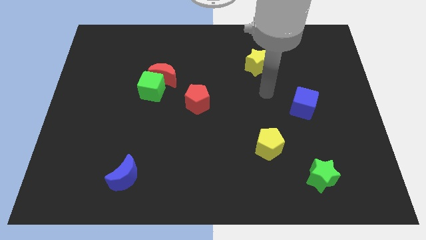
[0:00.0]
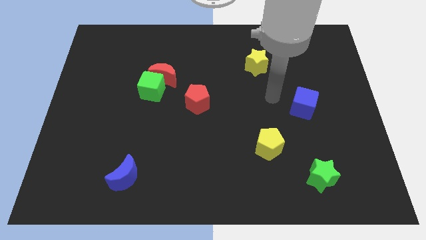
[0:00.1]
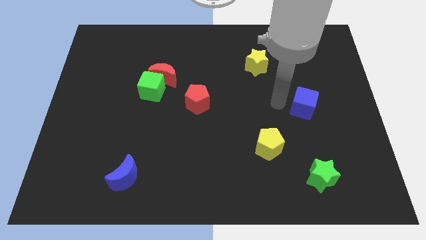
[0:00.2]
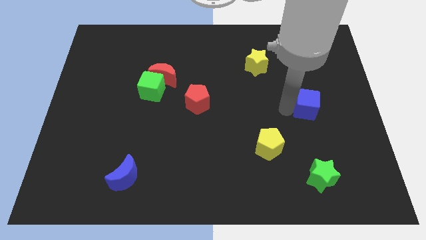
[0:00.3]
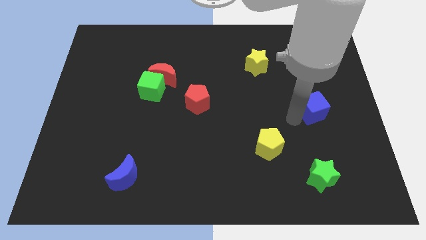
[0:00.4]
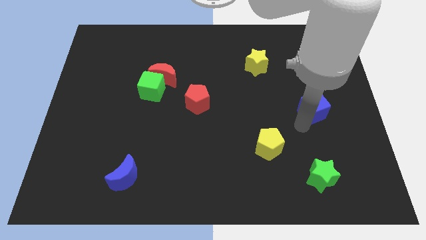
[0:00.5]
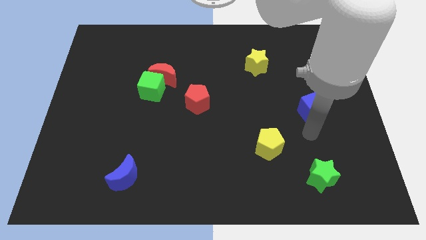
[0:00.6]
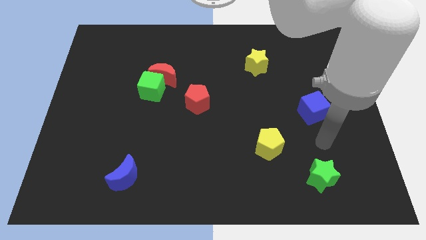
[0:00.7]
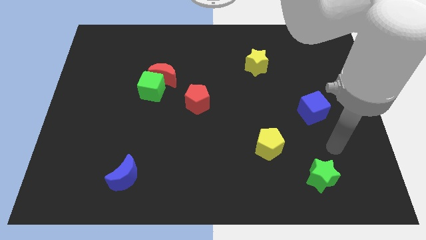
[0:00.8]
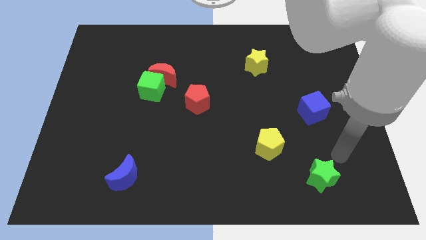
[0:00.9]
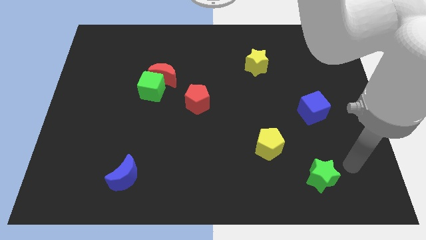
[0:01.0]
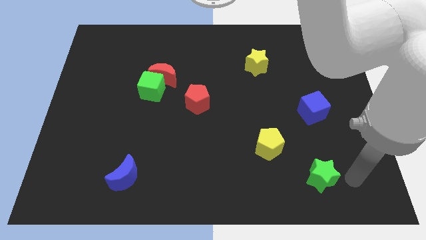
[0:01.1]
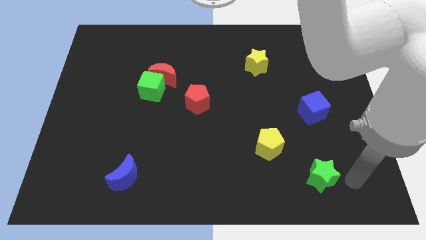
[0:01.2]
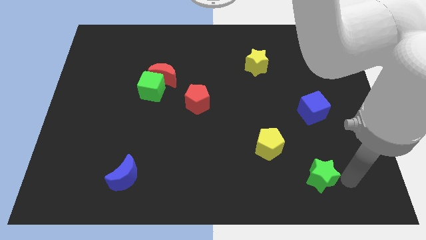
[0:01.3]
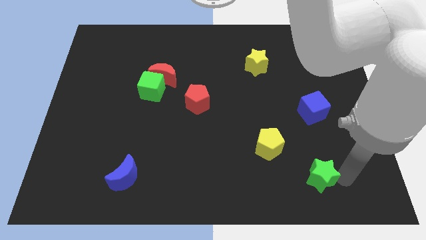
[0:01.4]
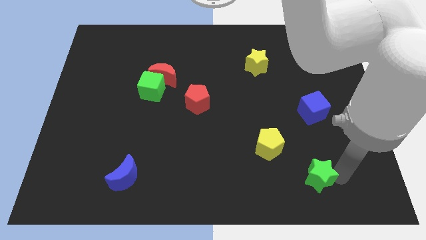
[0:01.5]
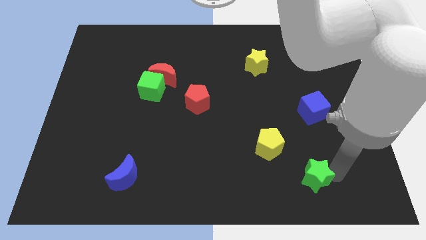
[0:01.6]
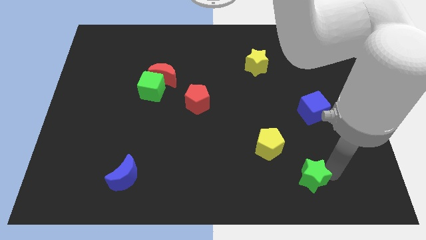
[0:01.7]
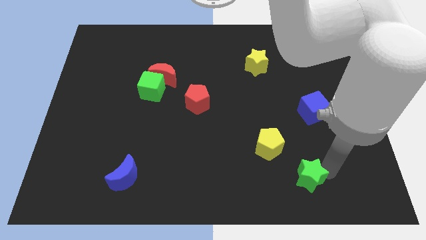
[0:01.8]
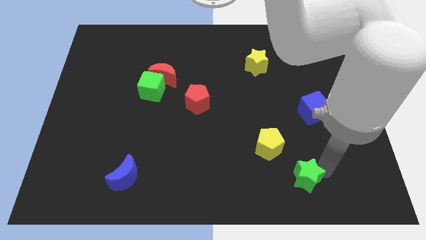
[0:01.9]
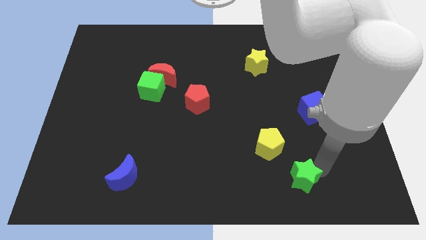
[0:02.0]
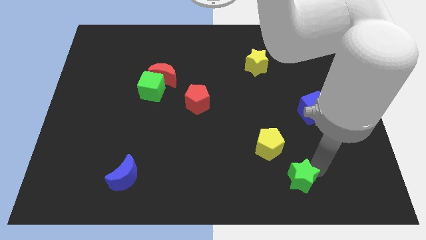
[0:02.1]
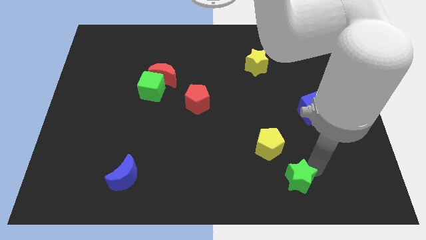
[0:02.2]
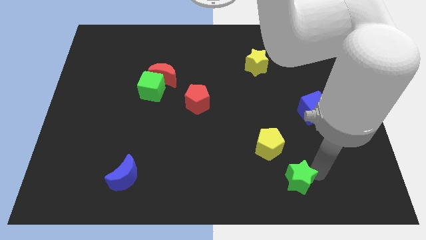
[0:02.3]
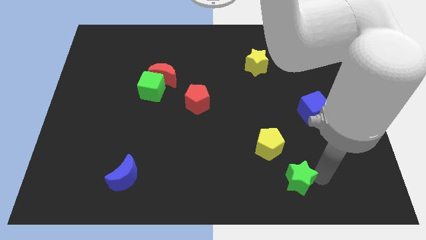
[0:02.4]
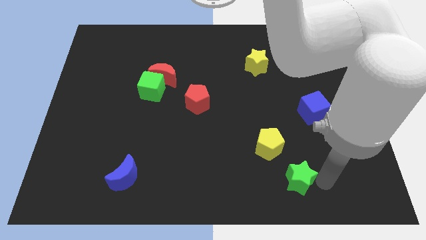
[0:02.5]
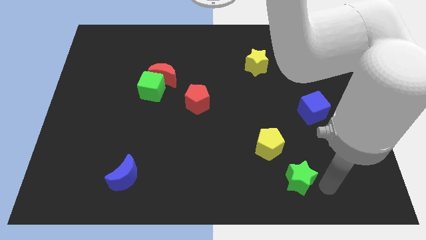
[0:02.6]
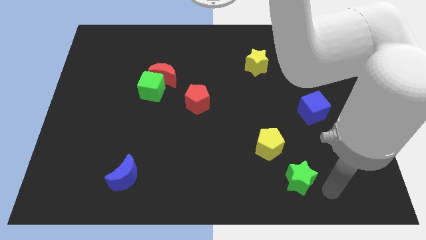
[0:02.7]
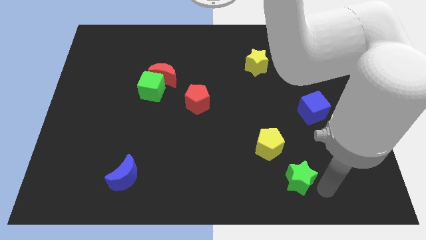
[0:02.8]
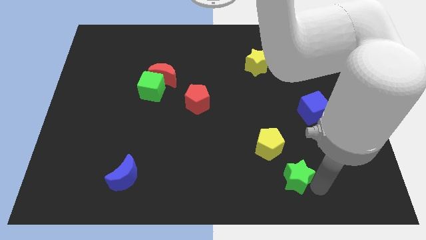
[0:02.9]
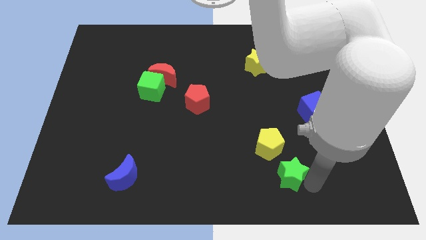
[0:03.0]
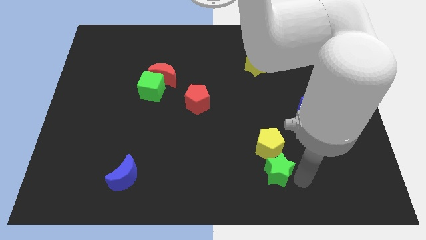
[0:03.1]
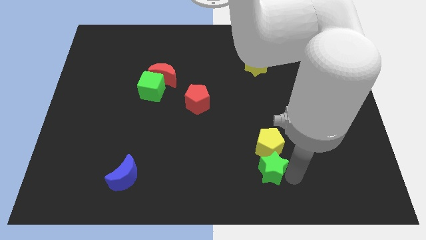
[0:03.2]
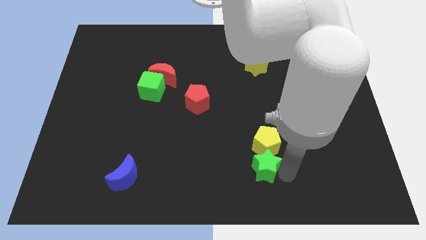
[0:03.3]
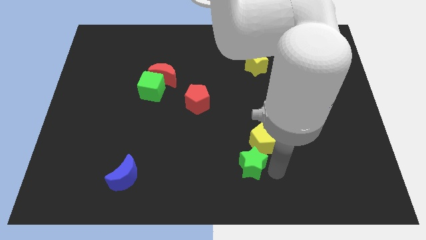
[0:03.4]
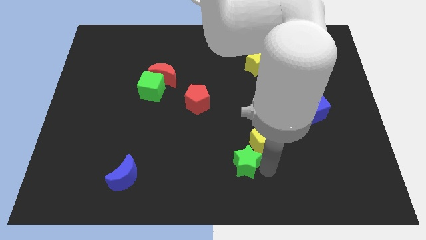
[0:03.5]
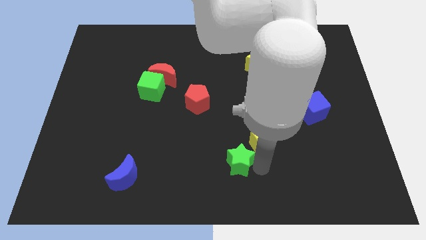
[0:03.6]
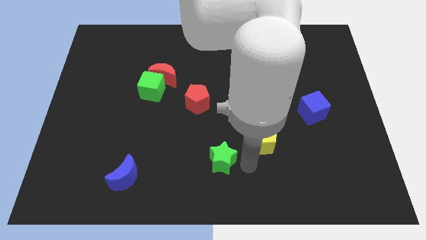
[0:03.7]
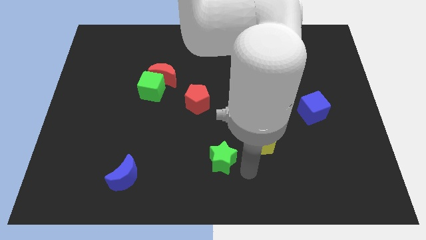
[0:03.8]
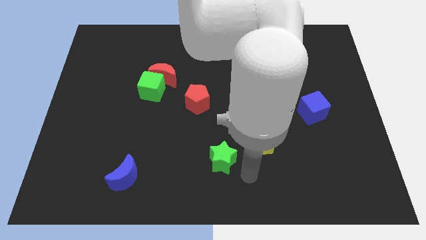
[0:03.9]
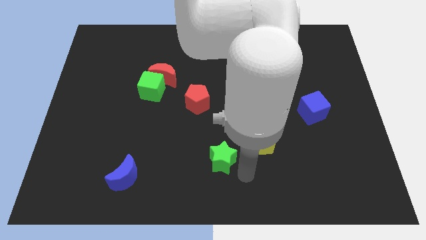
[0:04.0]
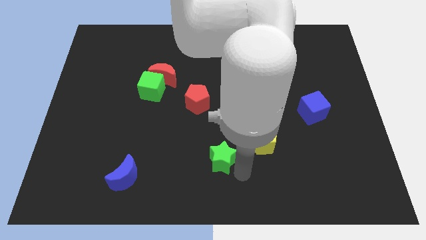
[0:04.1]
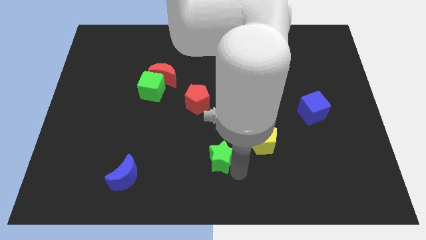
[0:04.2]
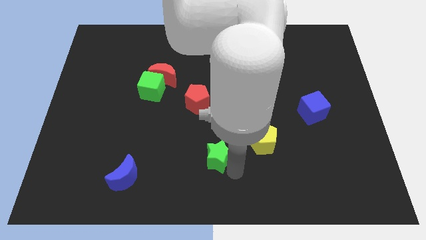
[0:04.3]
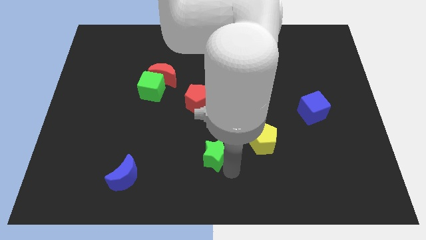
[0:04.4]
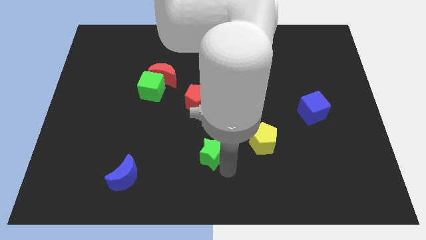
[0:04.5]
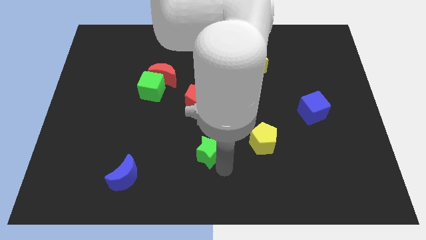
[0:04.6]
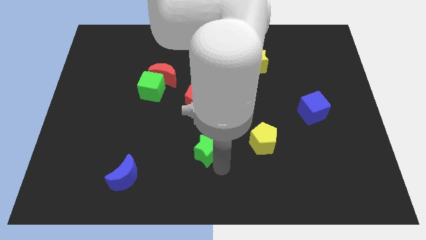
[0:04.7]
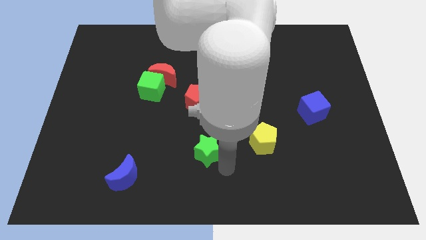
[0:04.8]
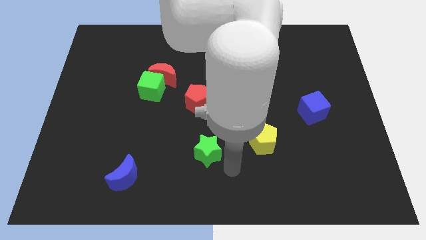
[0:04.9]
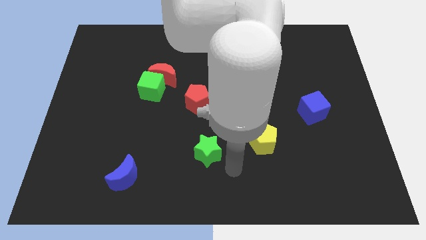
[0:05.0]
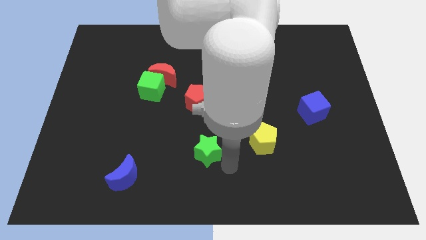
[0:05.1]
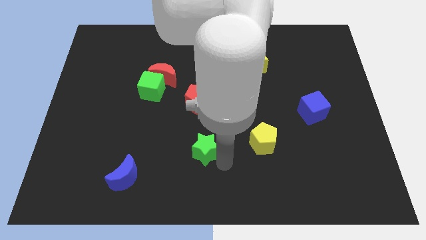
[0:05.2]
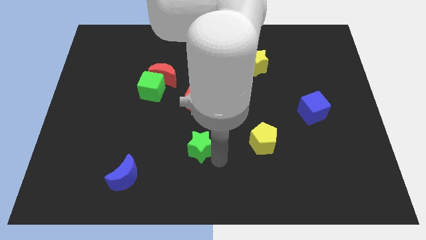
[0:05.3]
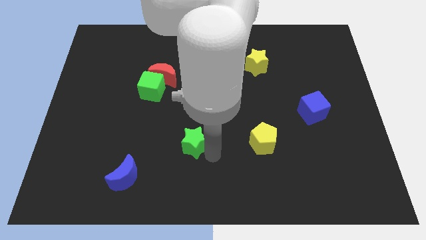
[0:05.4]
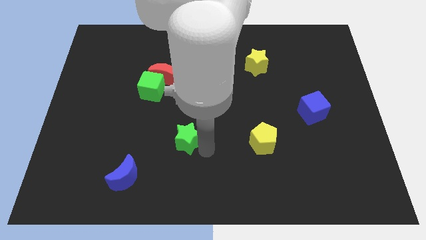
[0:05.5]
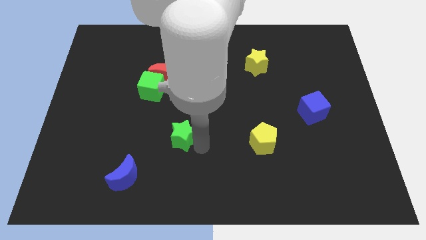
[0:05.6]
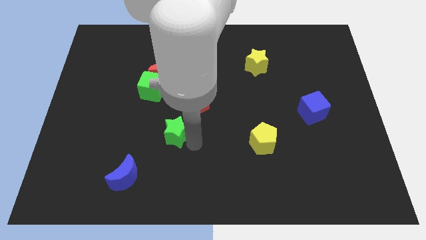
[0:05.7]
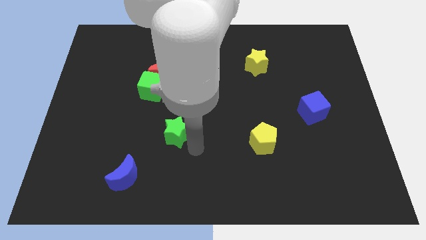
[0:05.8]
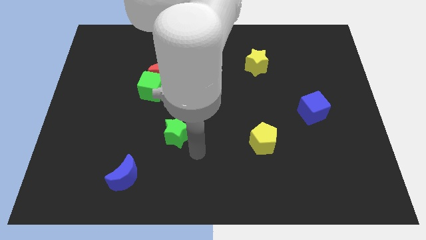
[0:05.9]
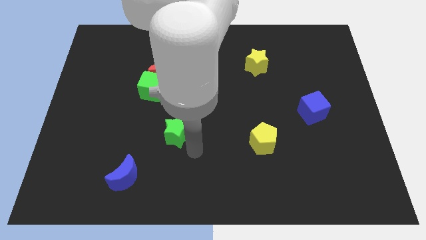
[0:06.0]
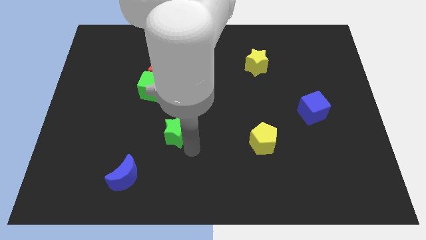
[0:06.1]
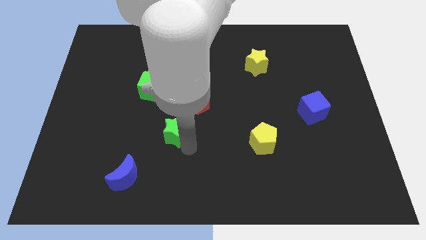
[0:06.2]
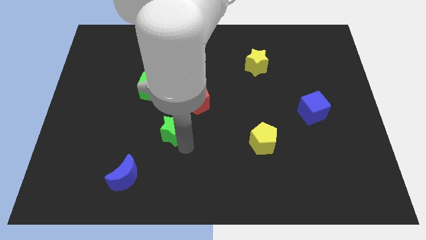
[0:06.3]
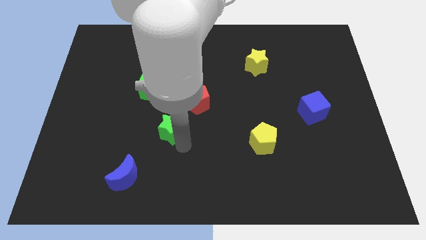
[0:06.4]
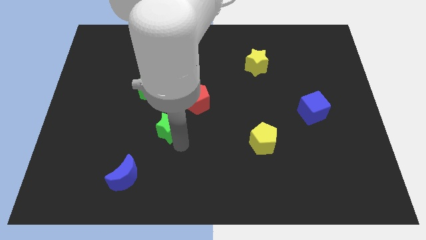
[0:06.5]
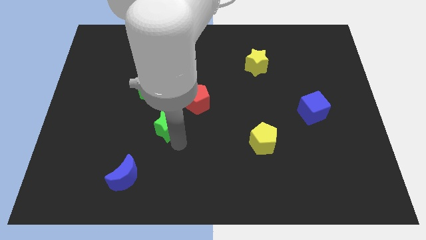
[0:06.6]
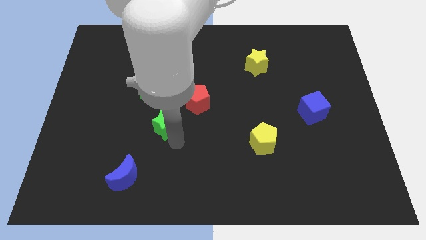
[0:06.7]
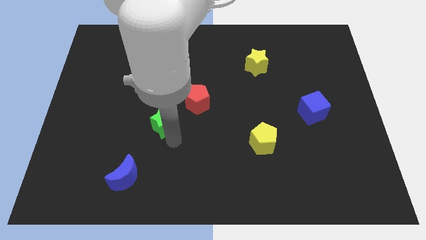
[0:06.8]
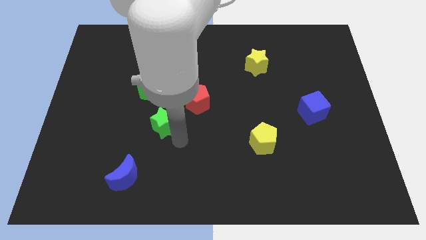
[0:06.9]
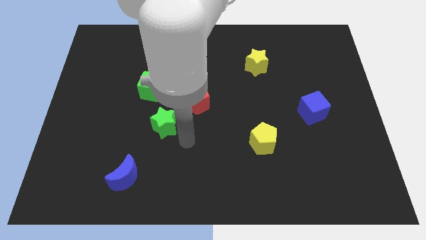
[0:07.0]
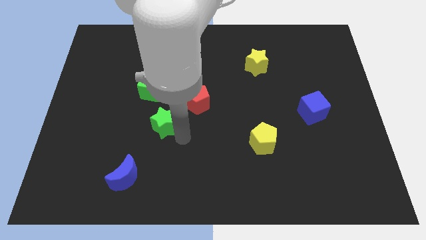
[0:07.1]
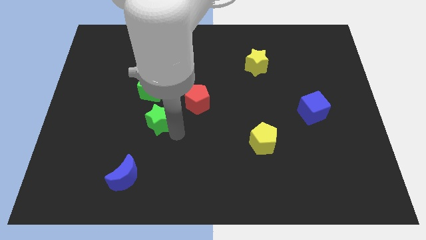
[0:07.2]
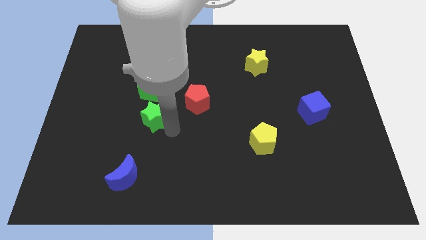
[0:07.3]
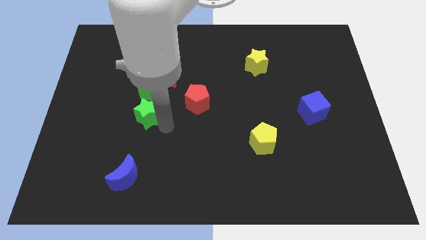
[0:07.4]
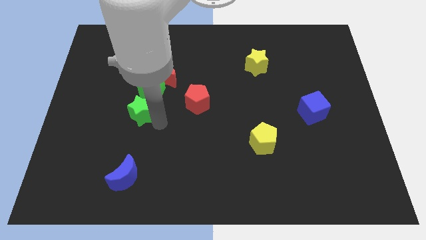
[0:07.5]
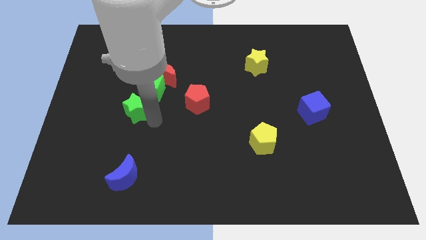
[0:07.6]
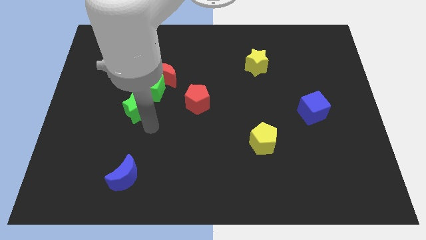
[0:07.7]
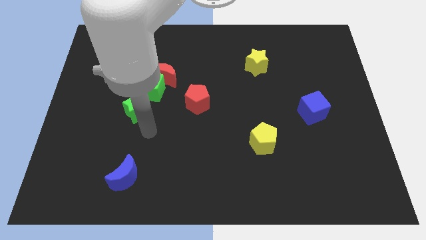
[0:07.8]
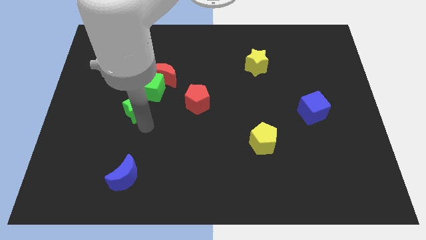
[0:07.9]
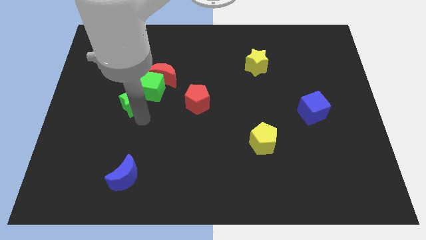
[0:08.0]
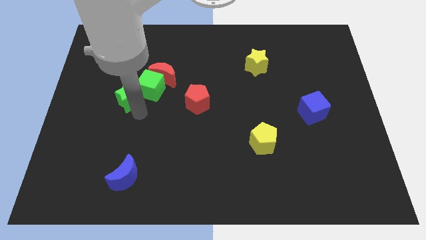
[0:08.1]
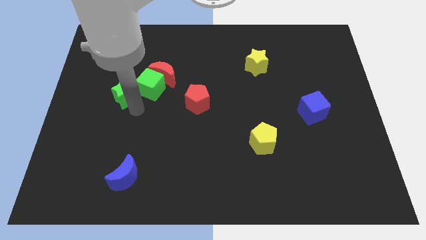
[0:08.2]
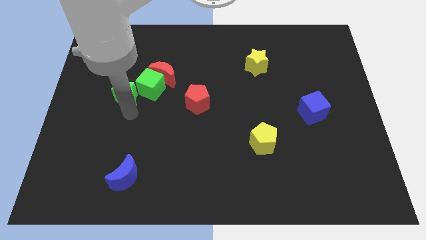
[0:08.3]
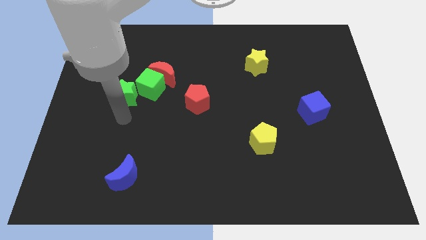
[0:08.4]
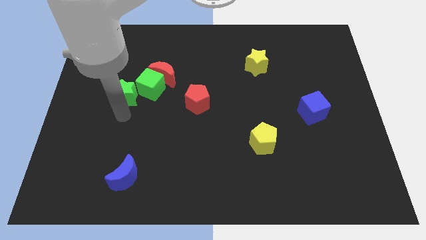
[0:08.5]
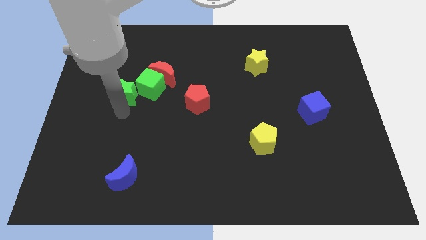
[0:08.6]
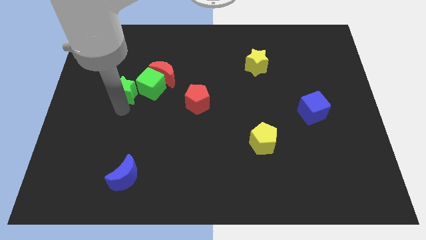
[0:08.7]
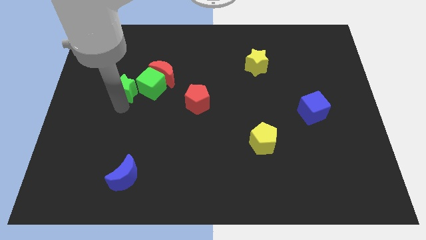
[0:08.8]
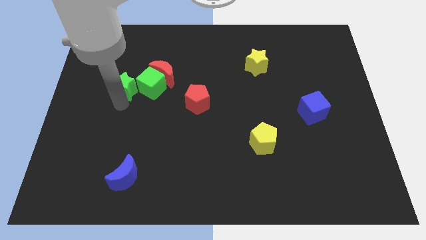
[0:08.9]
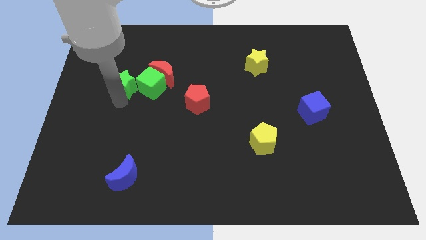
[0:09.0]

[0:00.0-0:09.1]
put the green star diagonally up and to the left of the green cube
